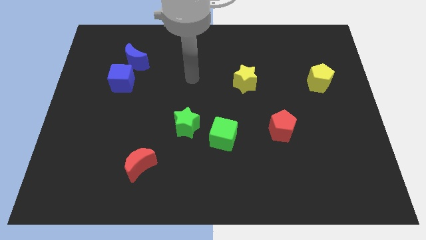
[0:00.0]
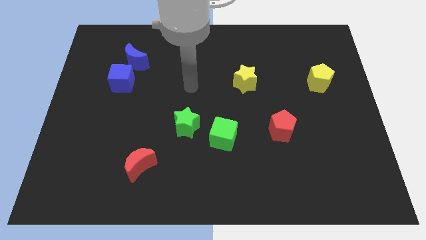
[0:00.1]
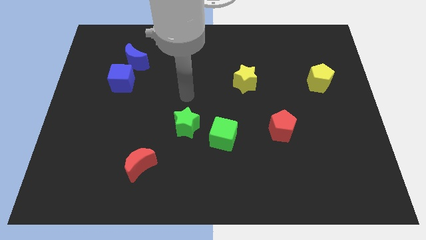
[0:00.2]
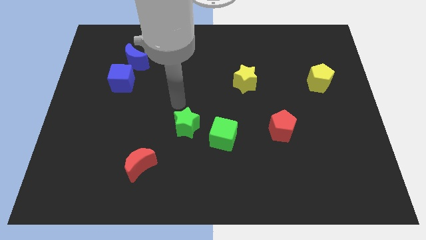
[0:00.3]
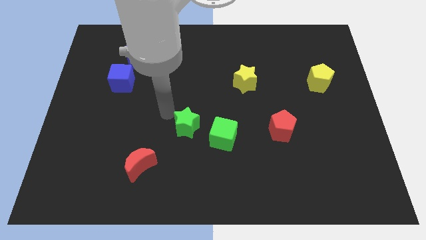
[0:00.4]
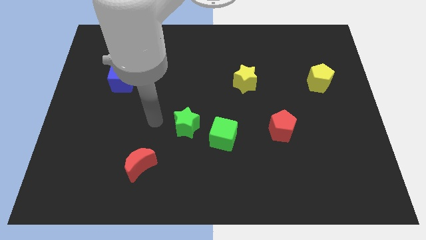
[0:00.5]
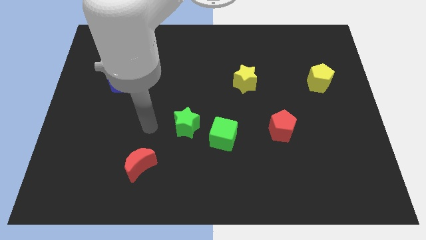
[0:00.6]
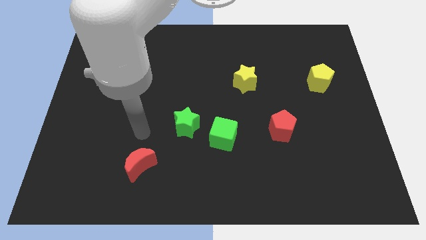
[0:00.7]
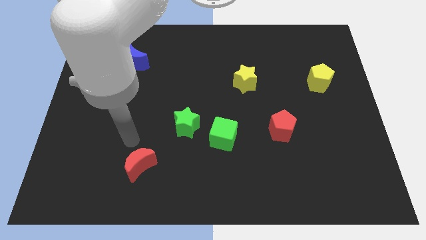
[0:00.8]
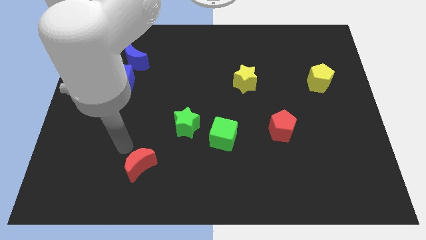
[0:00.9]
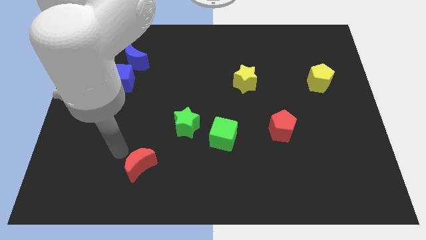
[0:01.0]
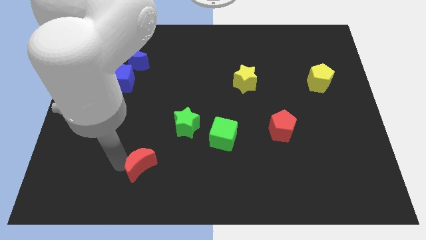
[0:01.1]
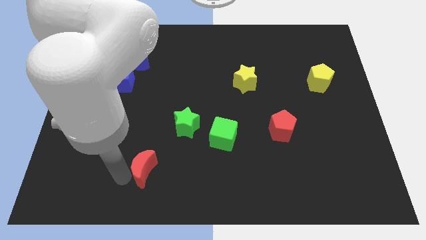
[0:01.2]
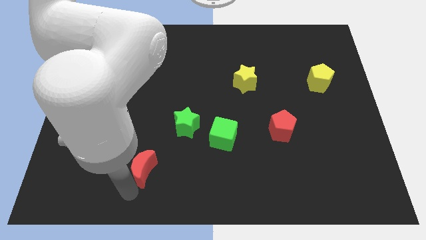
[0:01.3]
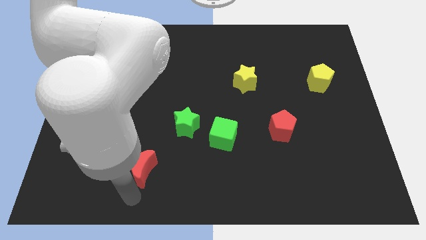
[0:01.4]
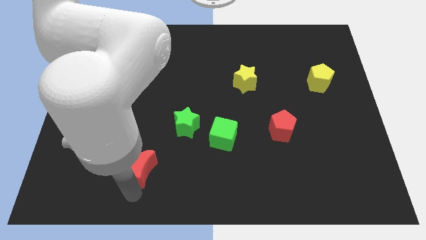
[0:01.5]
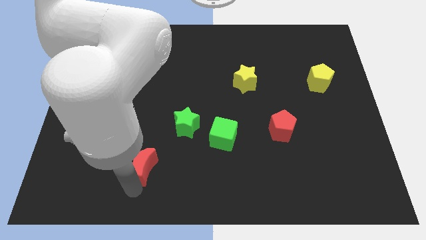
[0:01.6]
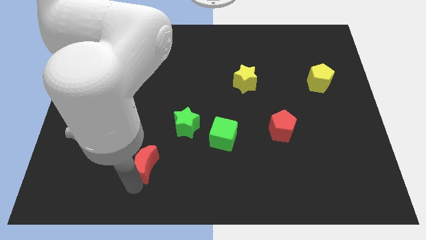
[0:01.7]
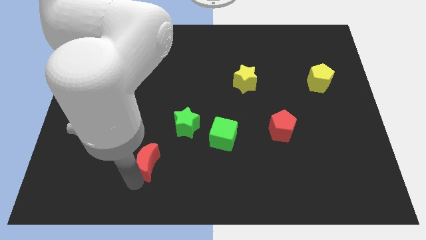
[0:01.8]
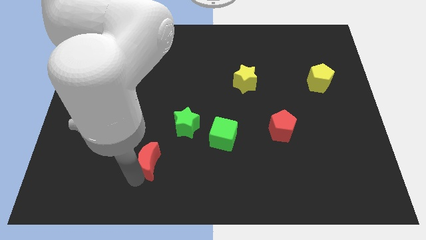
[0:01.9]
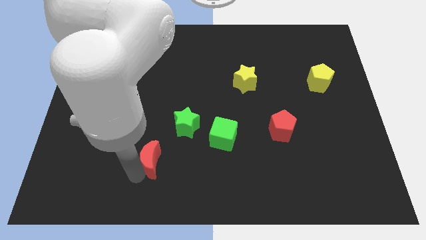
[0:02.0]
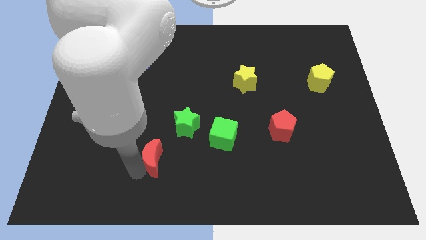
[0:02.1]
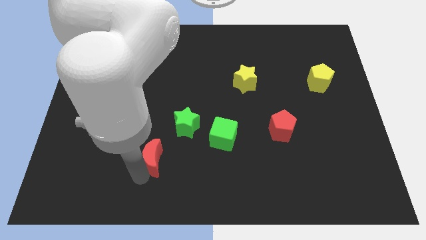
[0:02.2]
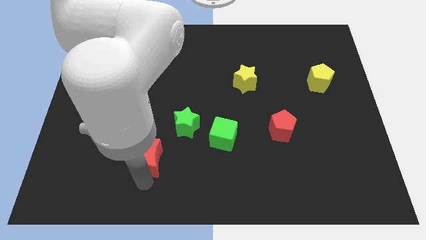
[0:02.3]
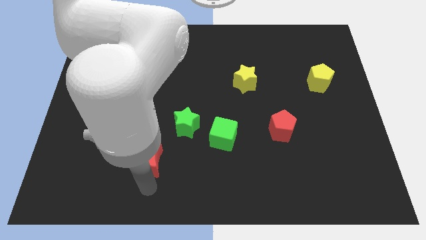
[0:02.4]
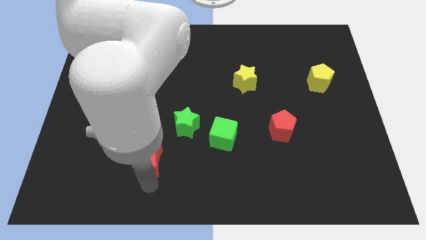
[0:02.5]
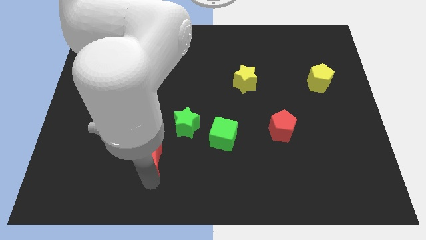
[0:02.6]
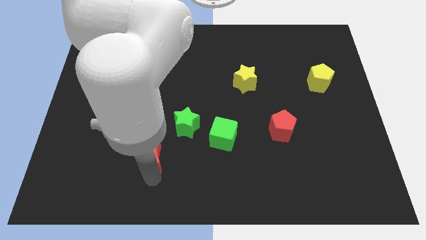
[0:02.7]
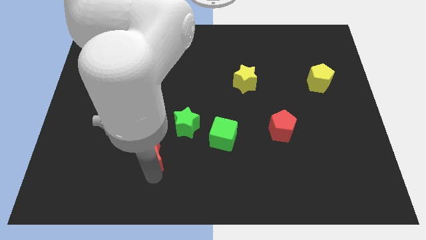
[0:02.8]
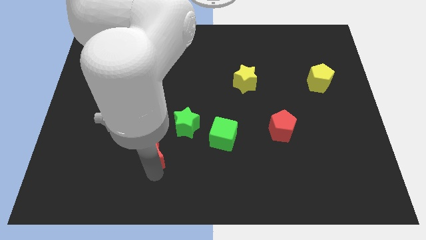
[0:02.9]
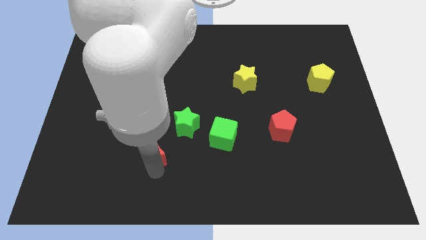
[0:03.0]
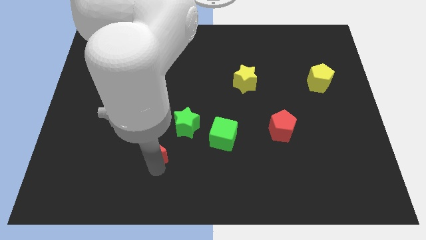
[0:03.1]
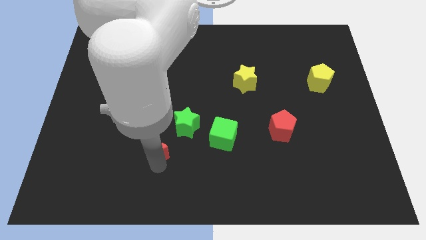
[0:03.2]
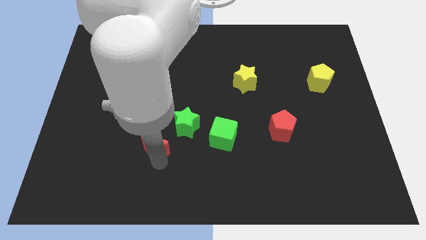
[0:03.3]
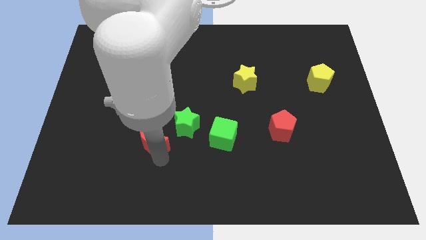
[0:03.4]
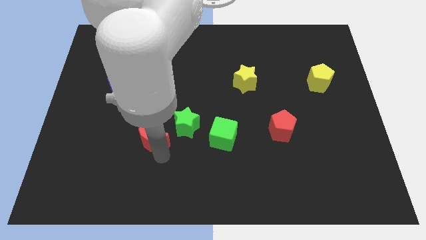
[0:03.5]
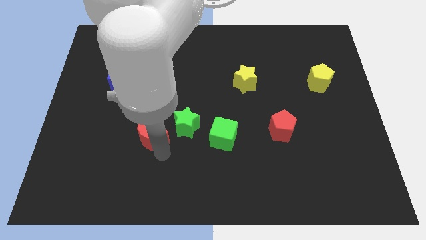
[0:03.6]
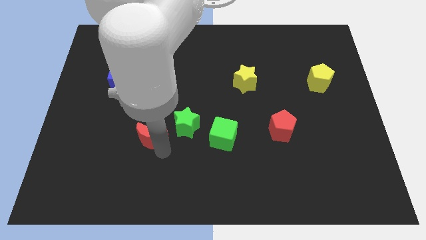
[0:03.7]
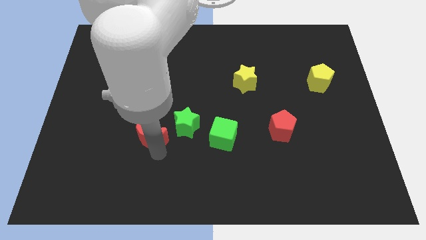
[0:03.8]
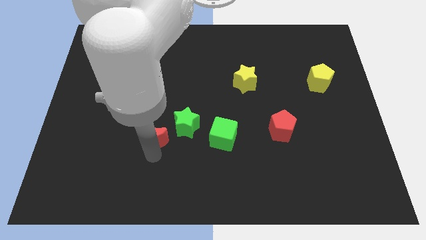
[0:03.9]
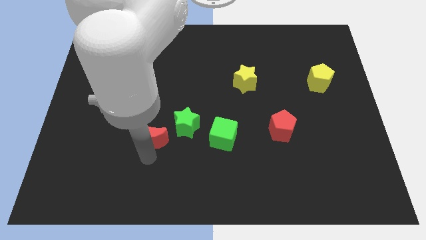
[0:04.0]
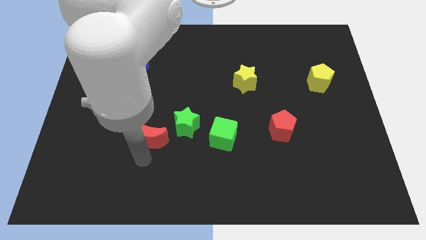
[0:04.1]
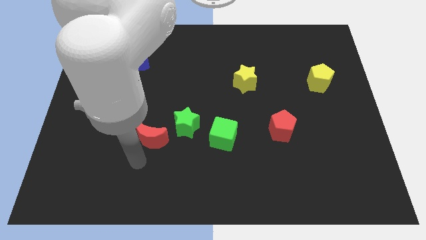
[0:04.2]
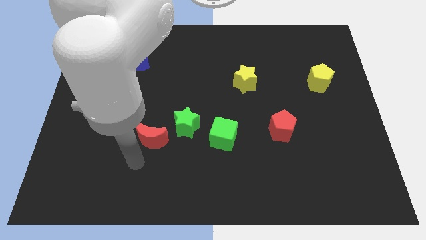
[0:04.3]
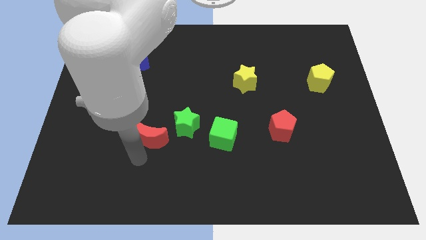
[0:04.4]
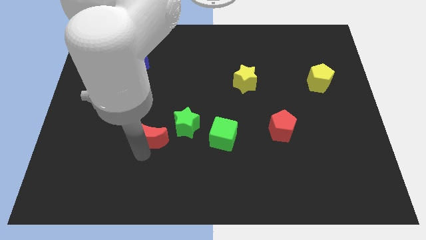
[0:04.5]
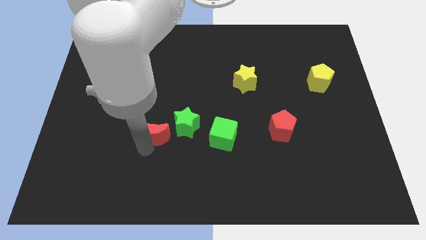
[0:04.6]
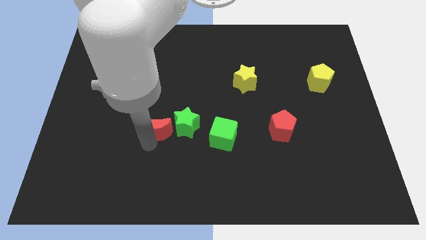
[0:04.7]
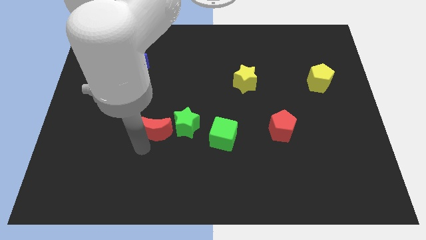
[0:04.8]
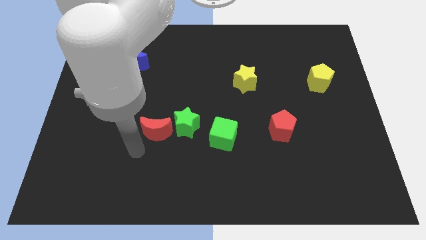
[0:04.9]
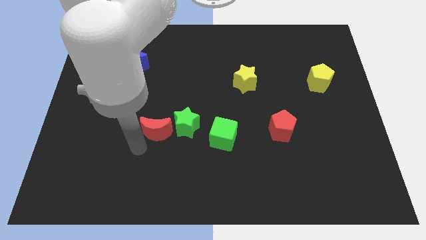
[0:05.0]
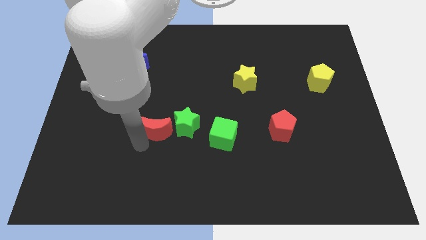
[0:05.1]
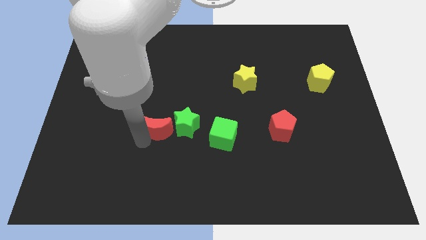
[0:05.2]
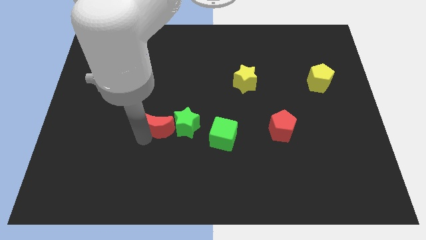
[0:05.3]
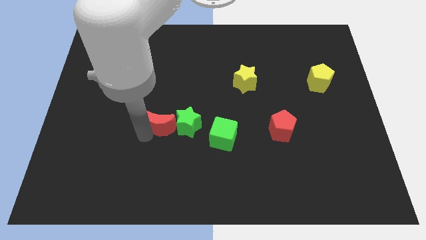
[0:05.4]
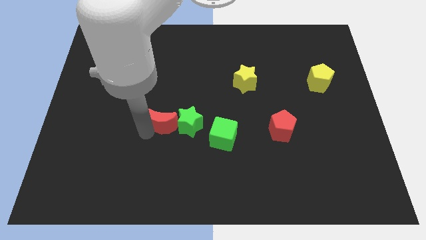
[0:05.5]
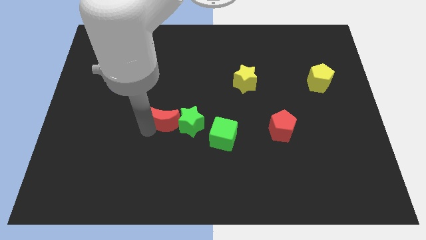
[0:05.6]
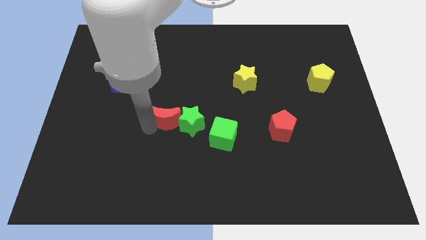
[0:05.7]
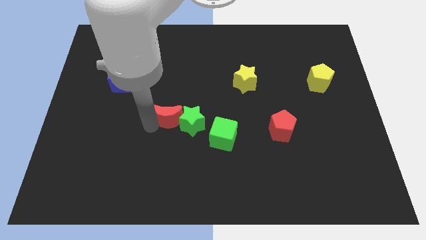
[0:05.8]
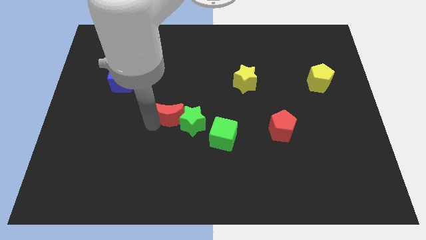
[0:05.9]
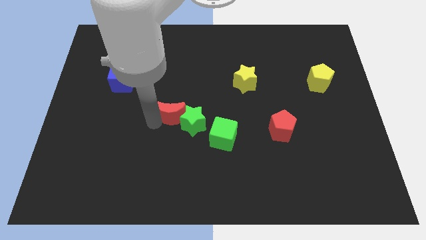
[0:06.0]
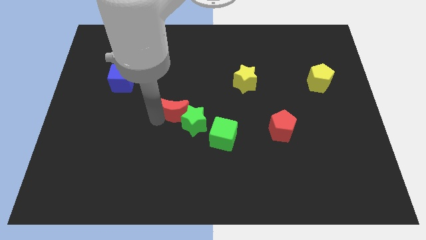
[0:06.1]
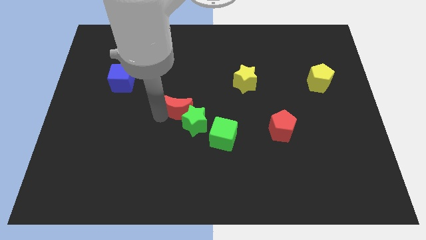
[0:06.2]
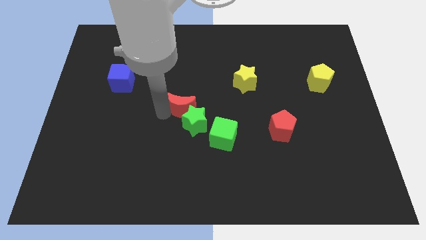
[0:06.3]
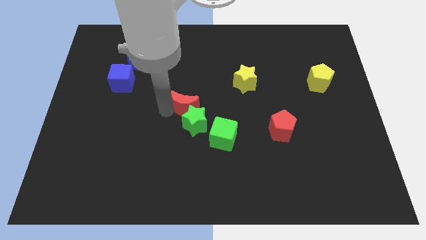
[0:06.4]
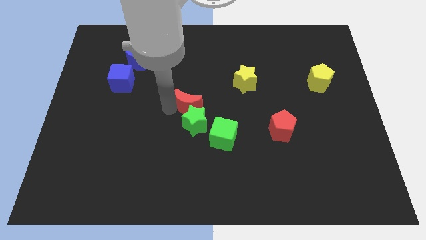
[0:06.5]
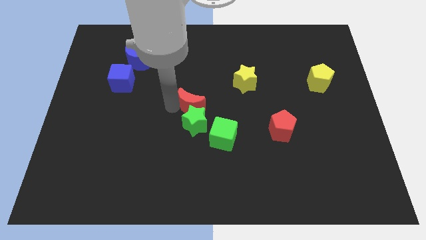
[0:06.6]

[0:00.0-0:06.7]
move the red moon diagonally up and to the right of the green star

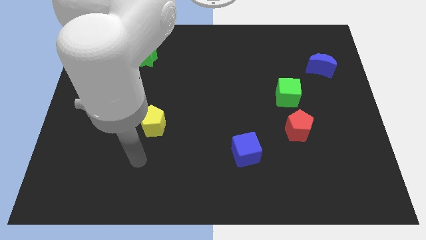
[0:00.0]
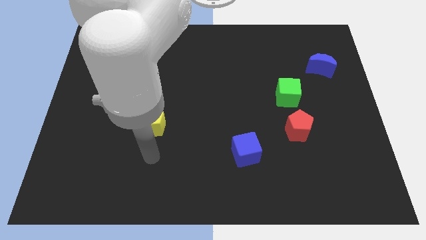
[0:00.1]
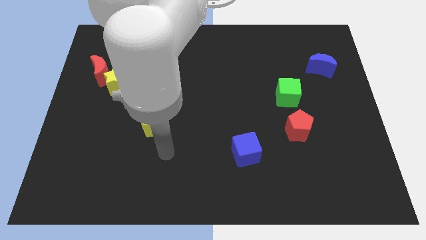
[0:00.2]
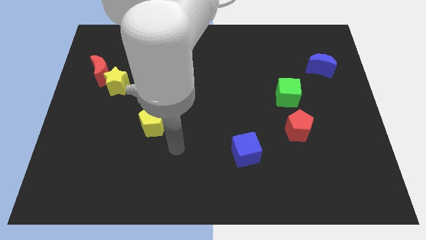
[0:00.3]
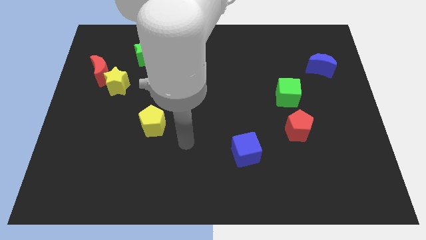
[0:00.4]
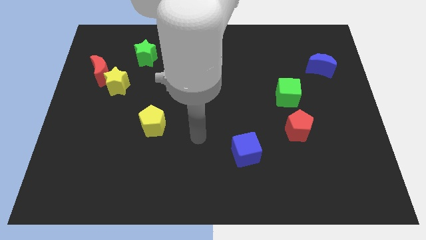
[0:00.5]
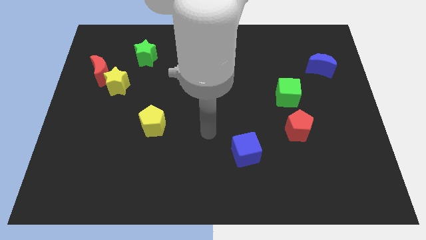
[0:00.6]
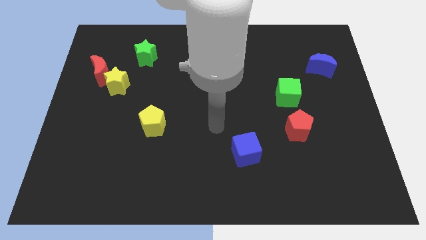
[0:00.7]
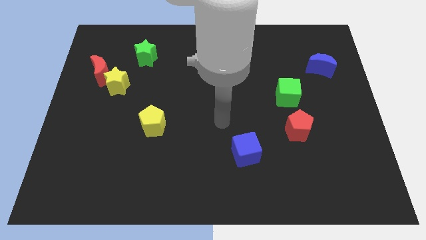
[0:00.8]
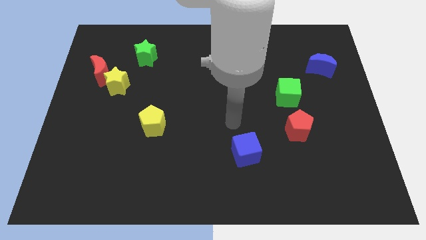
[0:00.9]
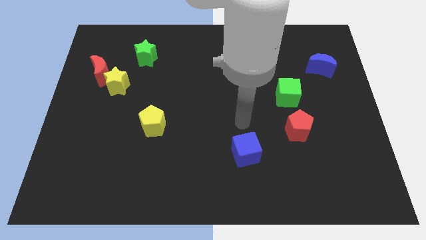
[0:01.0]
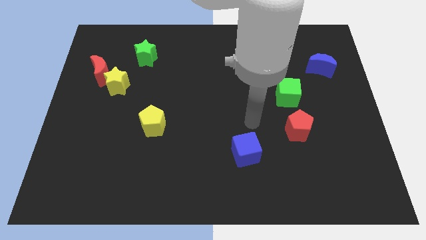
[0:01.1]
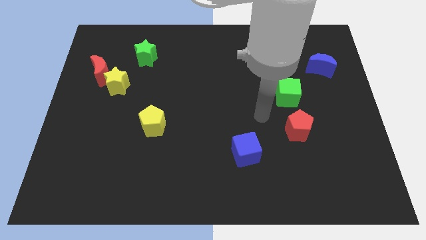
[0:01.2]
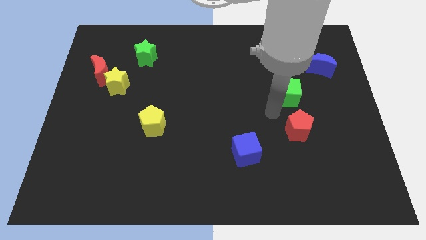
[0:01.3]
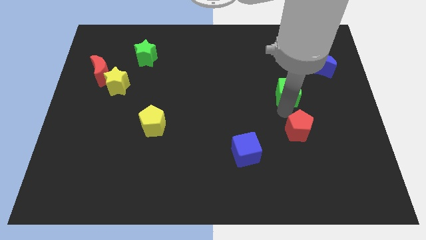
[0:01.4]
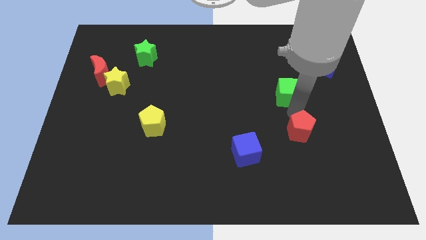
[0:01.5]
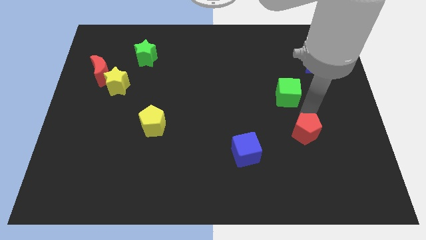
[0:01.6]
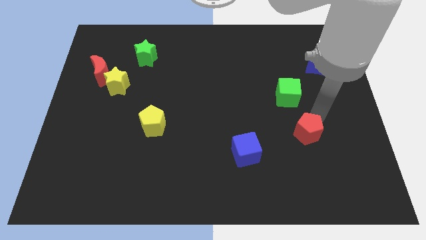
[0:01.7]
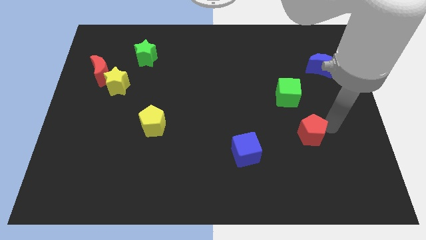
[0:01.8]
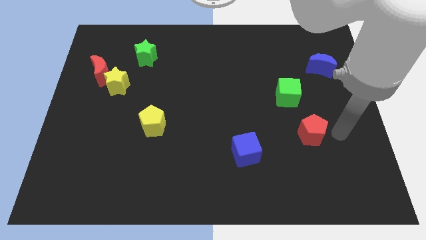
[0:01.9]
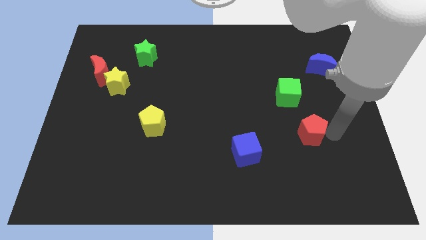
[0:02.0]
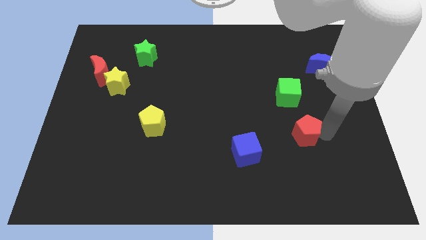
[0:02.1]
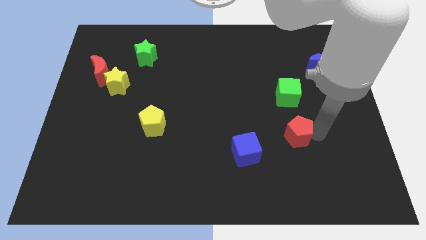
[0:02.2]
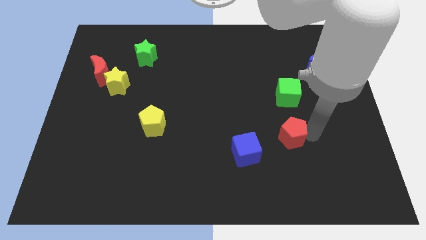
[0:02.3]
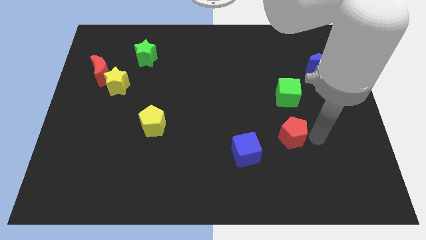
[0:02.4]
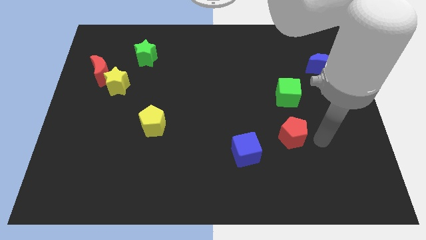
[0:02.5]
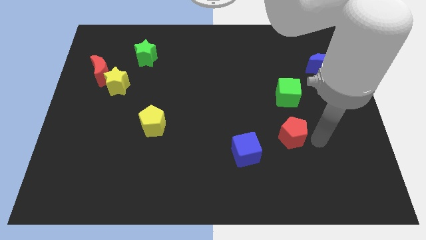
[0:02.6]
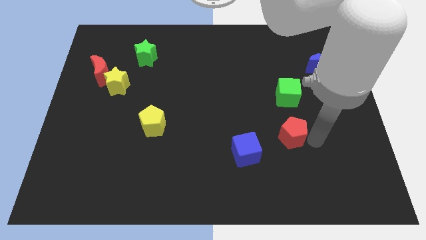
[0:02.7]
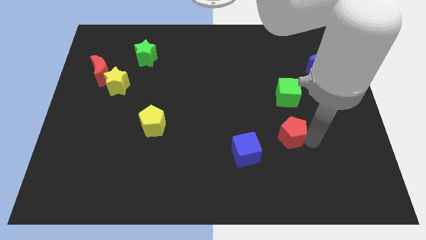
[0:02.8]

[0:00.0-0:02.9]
put the red pentagon to the top right of the blue cube
